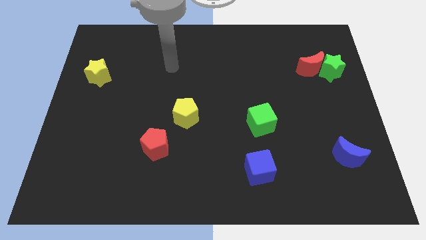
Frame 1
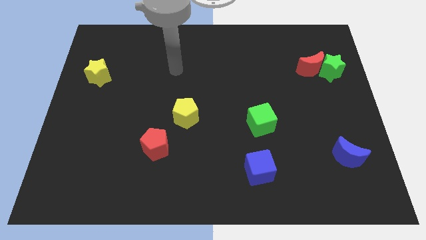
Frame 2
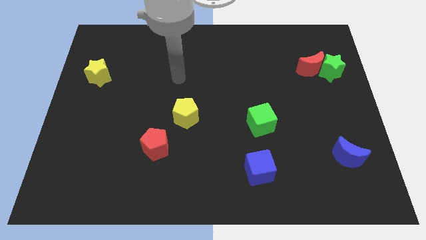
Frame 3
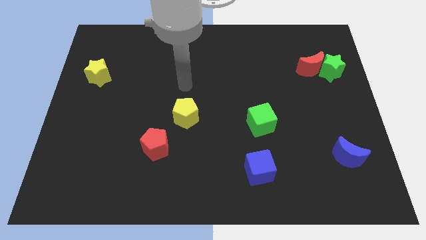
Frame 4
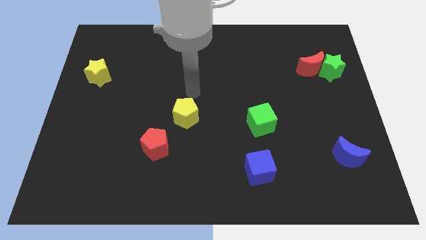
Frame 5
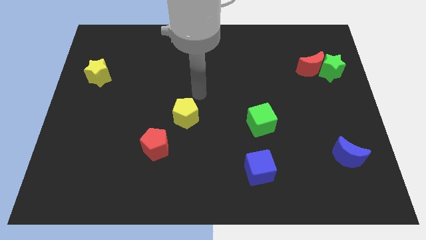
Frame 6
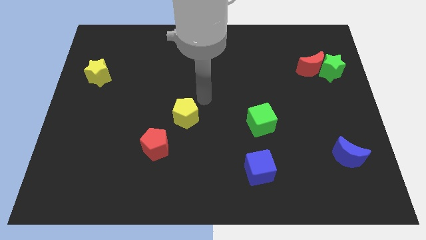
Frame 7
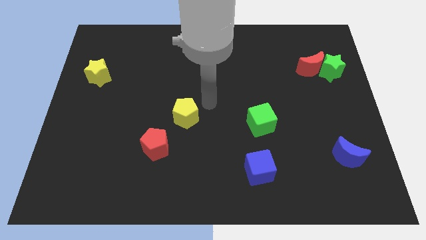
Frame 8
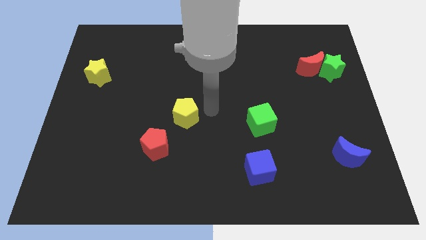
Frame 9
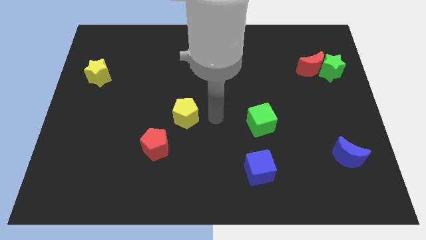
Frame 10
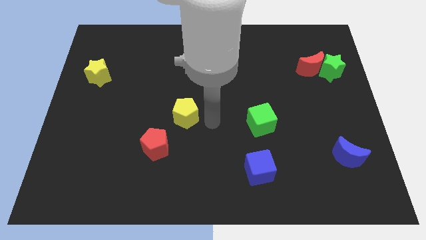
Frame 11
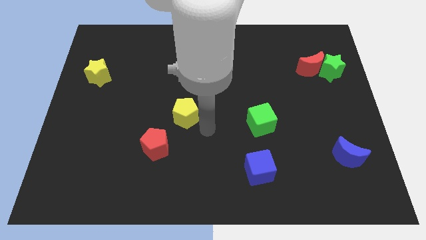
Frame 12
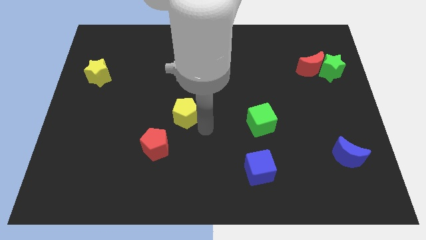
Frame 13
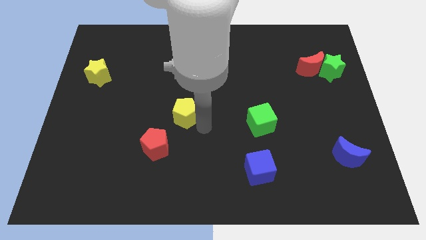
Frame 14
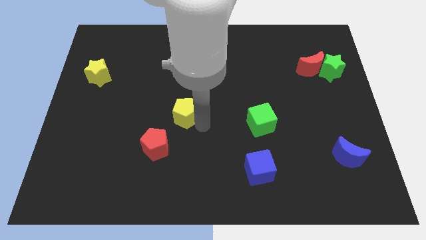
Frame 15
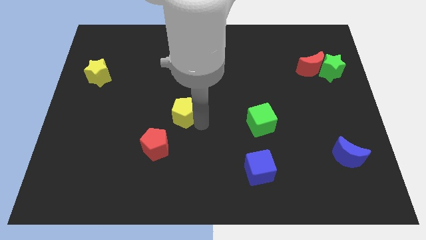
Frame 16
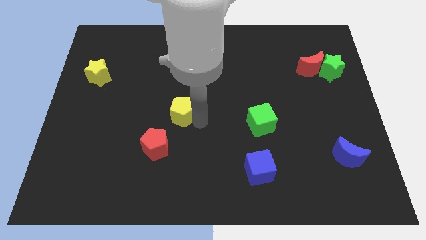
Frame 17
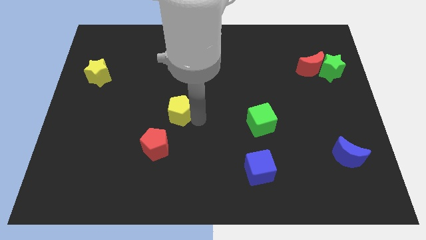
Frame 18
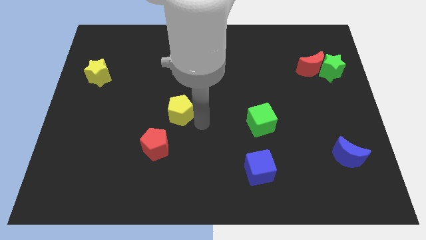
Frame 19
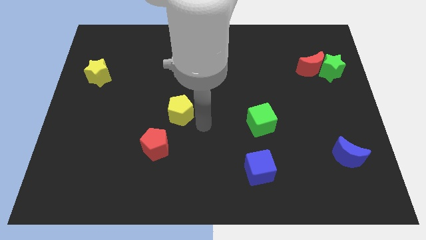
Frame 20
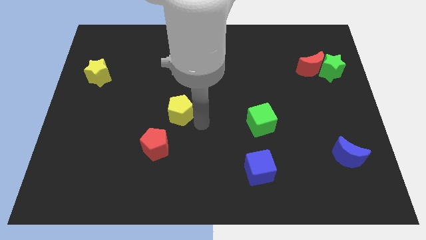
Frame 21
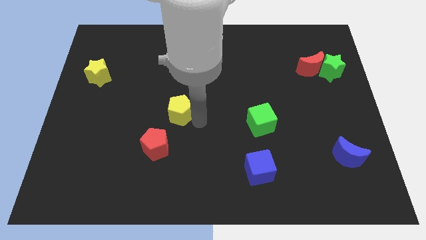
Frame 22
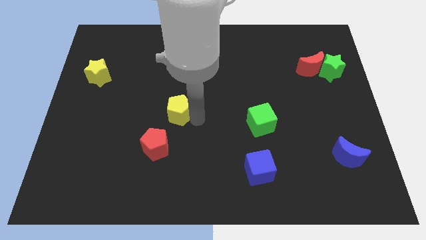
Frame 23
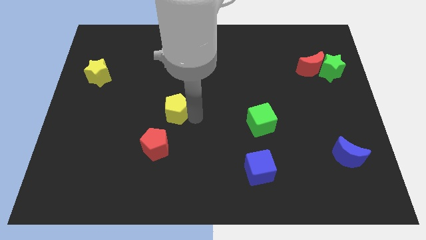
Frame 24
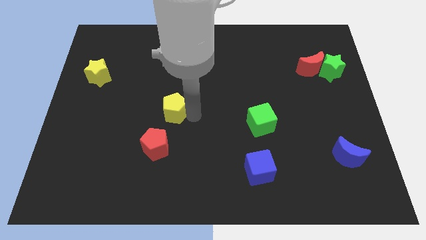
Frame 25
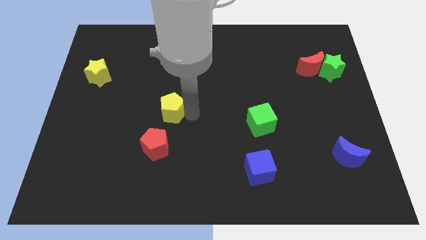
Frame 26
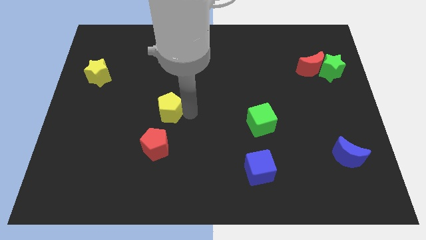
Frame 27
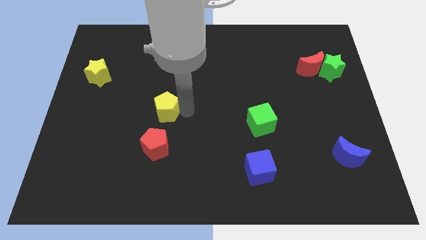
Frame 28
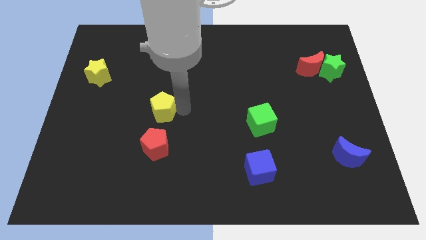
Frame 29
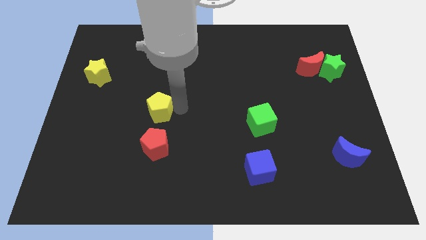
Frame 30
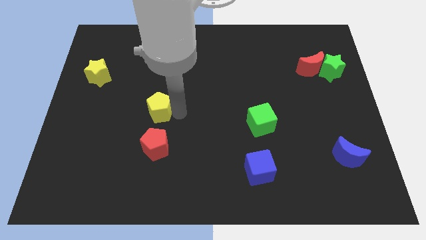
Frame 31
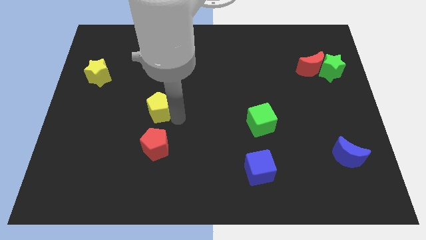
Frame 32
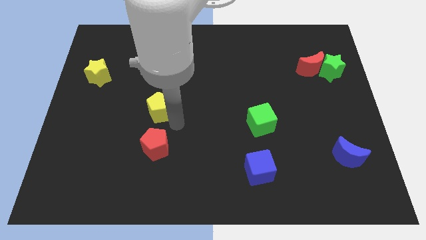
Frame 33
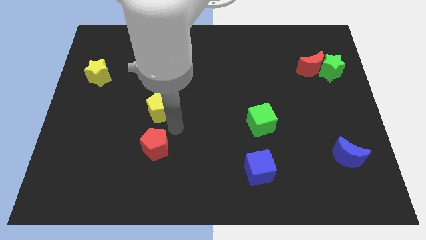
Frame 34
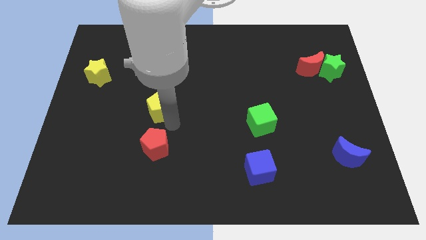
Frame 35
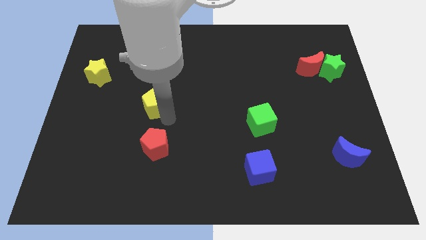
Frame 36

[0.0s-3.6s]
push the yellow pentagon diagonally up and to the left a little

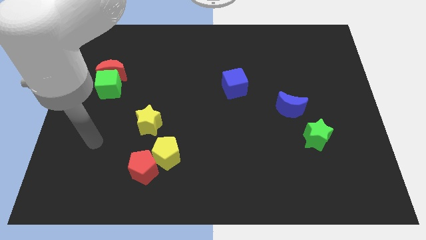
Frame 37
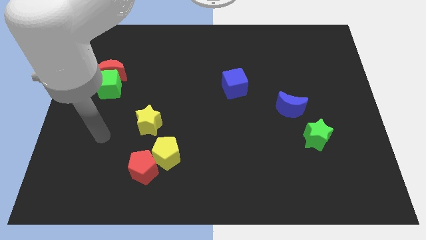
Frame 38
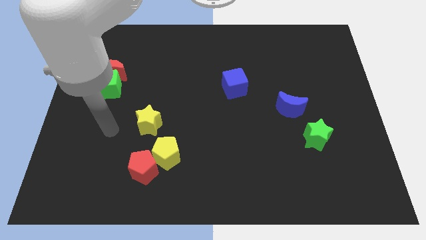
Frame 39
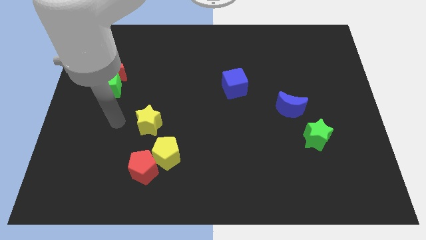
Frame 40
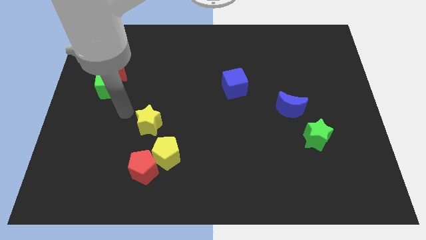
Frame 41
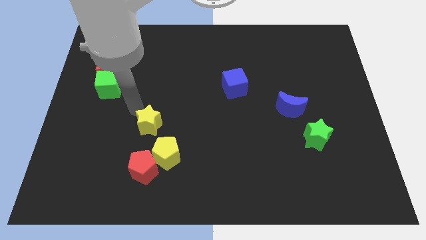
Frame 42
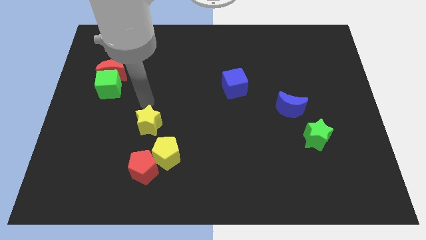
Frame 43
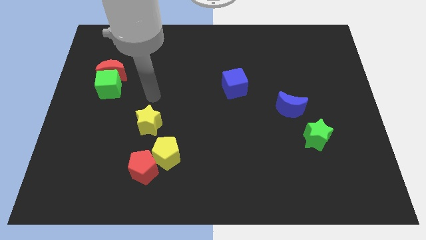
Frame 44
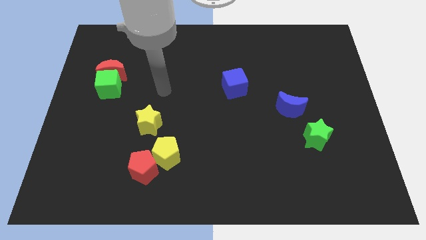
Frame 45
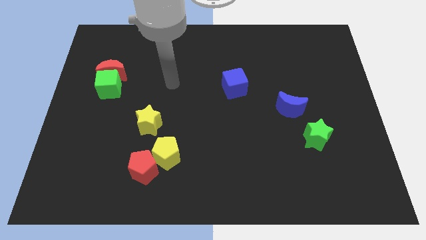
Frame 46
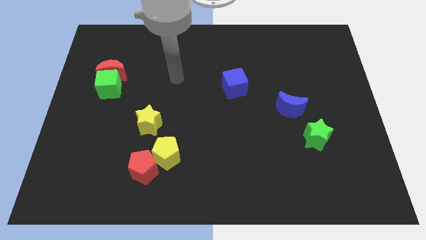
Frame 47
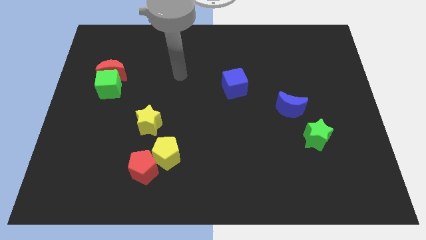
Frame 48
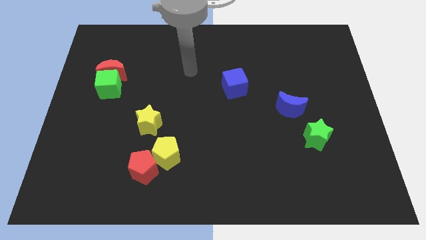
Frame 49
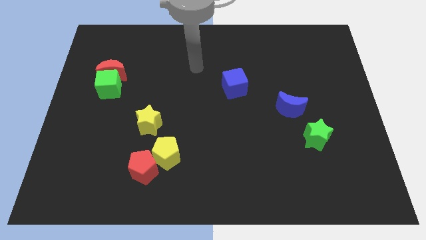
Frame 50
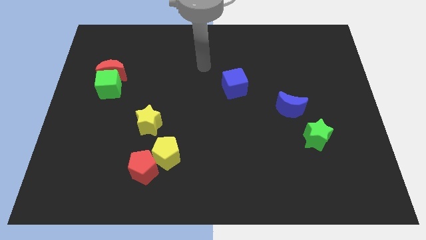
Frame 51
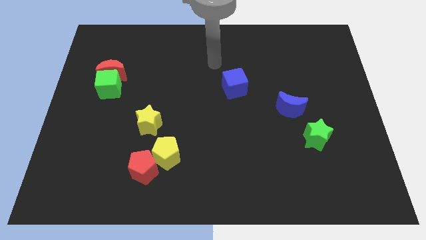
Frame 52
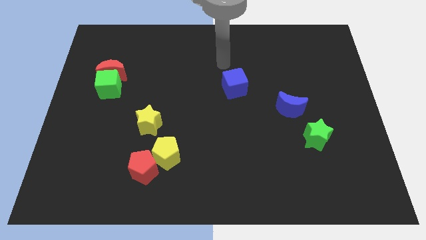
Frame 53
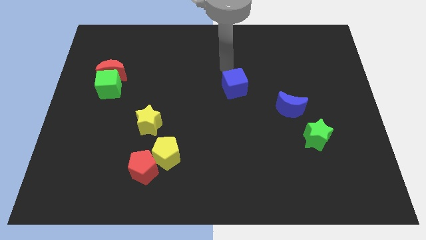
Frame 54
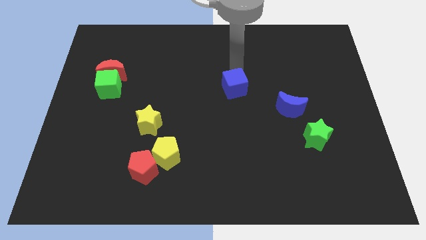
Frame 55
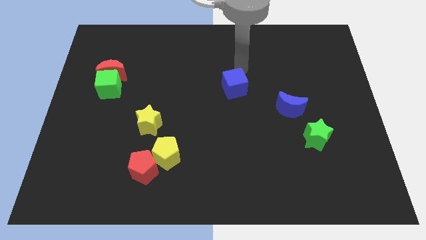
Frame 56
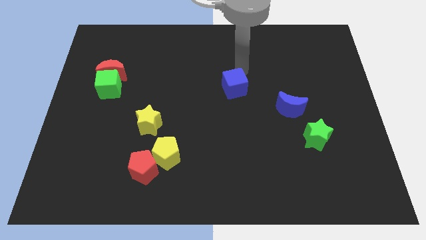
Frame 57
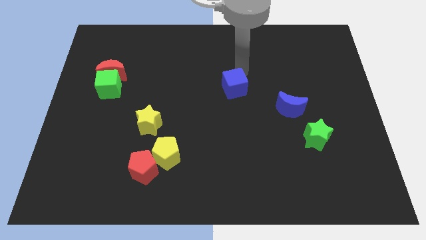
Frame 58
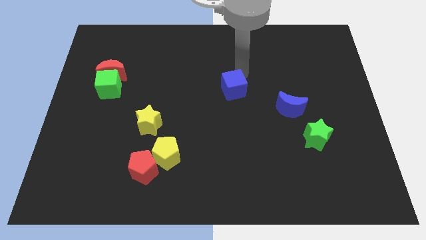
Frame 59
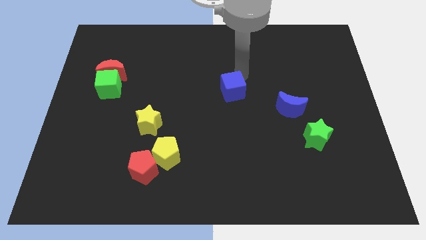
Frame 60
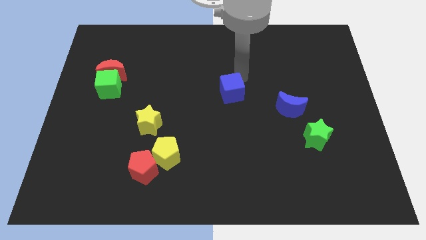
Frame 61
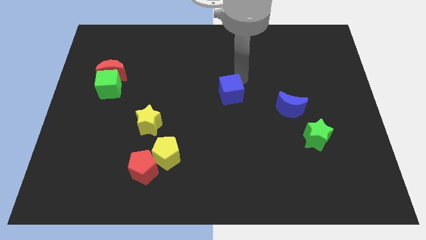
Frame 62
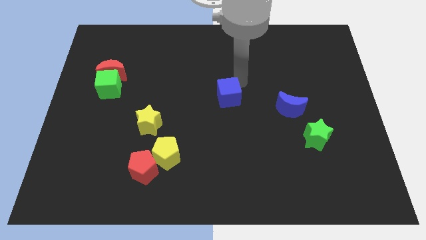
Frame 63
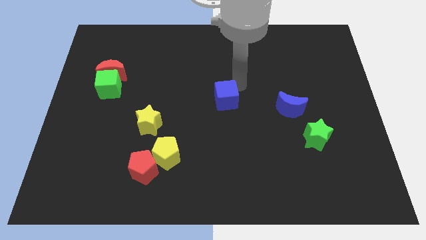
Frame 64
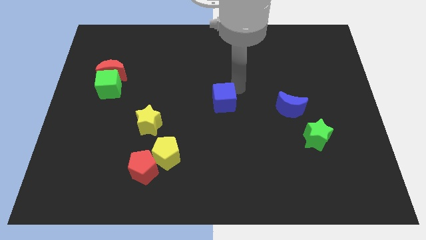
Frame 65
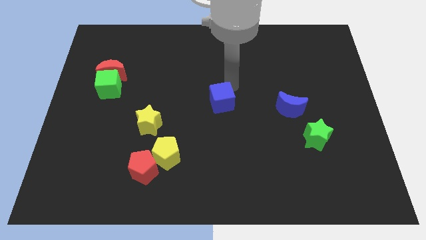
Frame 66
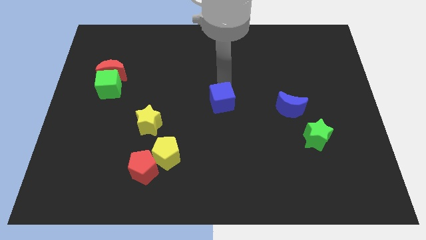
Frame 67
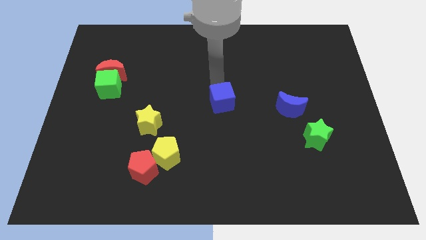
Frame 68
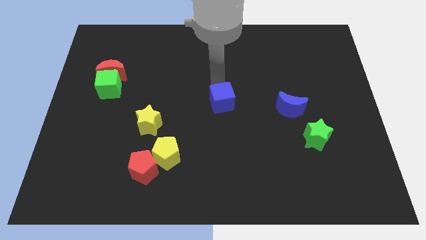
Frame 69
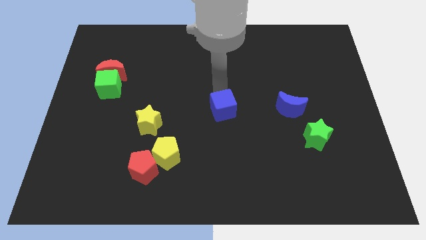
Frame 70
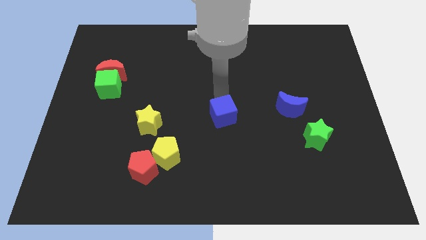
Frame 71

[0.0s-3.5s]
slightly slide the blue cube down

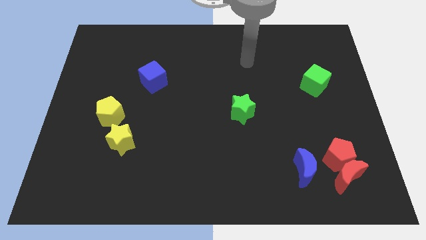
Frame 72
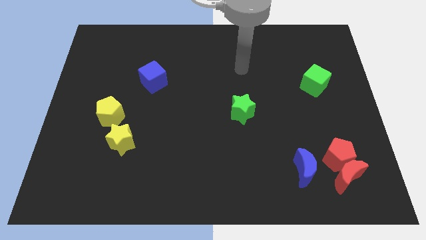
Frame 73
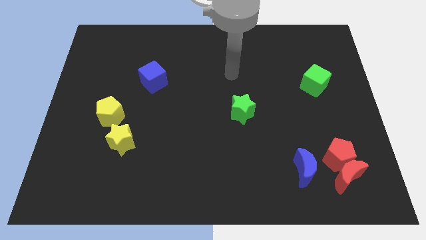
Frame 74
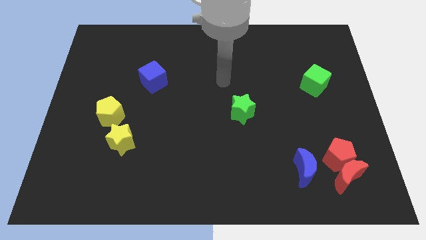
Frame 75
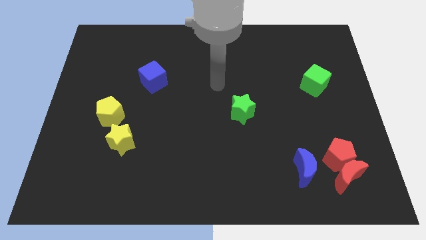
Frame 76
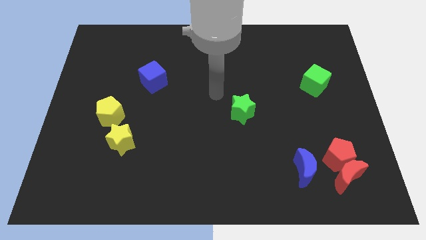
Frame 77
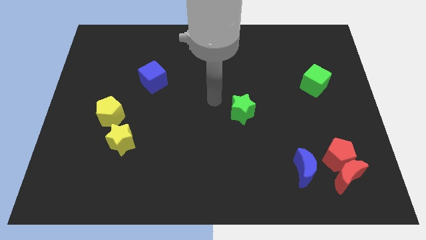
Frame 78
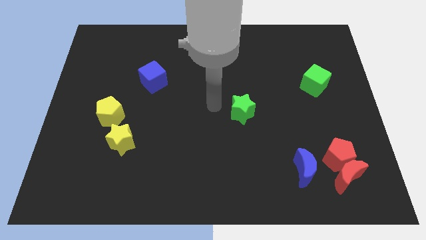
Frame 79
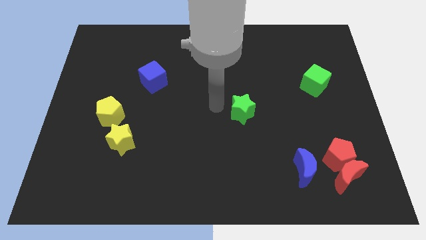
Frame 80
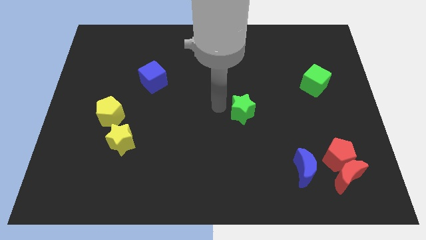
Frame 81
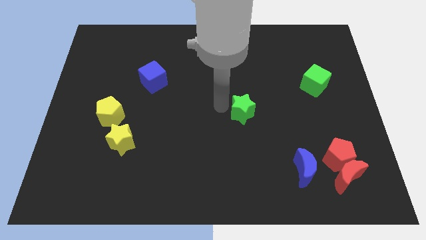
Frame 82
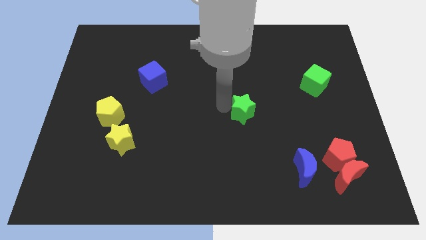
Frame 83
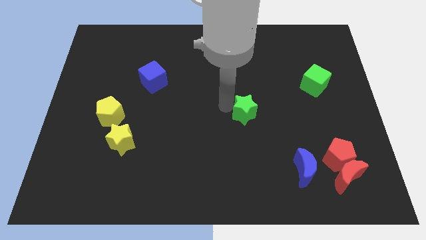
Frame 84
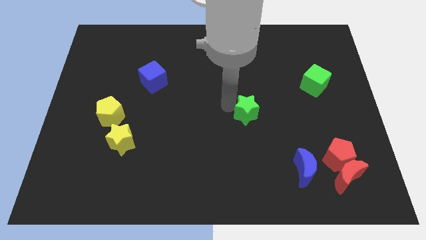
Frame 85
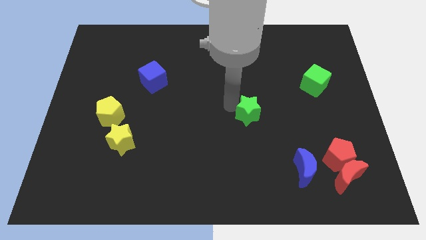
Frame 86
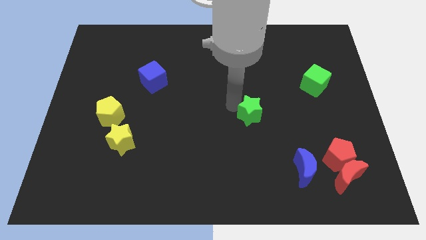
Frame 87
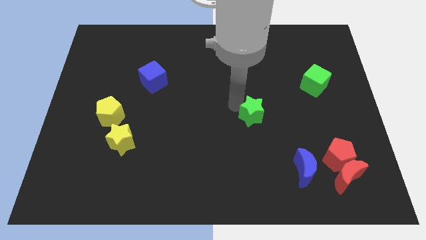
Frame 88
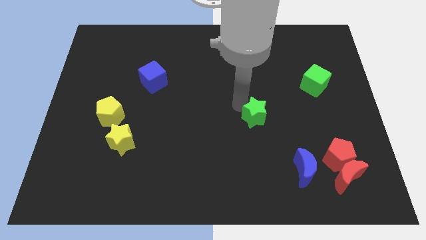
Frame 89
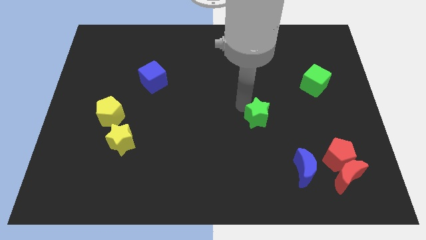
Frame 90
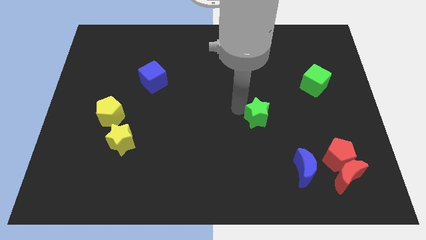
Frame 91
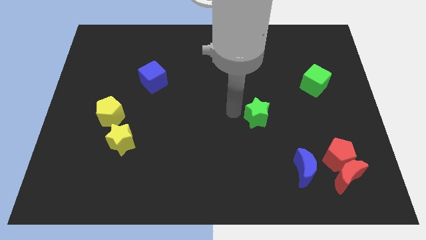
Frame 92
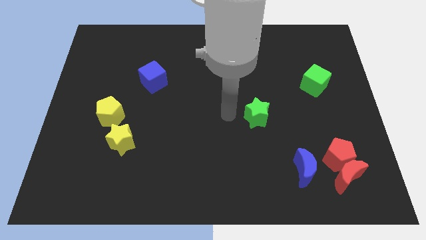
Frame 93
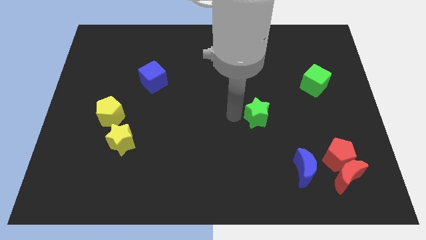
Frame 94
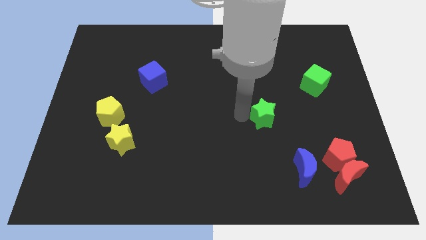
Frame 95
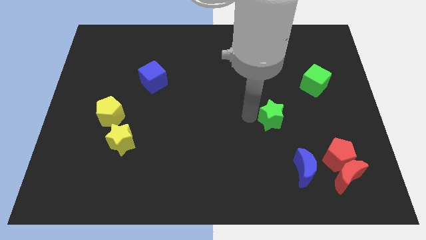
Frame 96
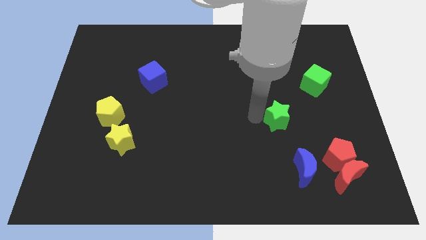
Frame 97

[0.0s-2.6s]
slightly push the green star to the right
